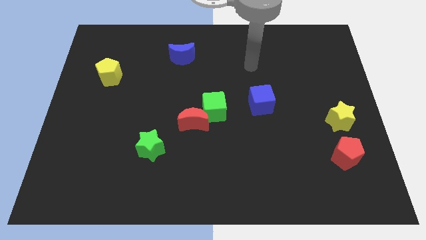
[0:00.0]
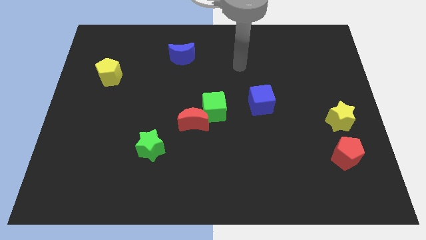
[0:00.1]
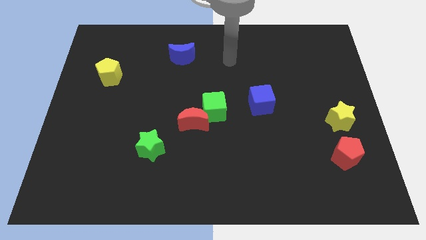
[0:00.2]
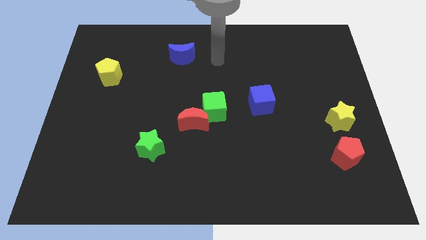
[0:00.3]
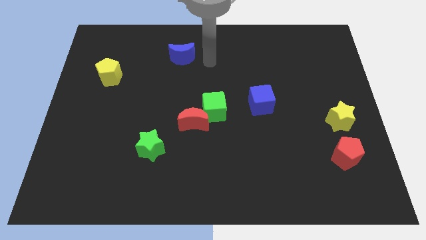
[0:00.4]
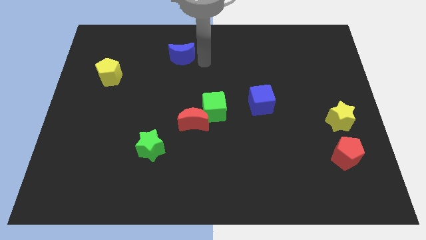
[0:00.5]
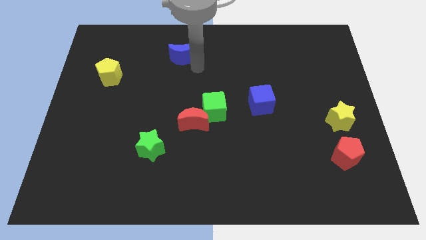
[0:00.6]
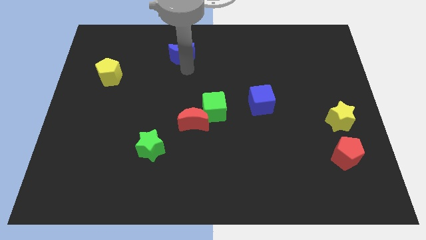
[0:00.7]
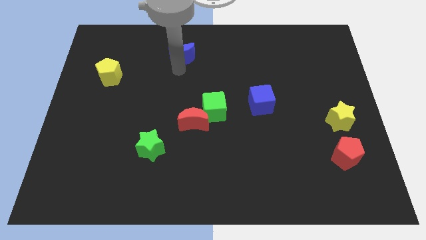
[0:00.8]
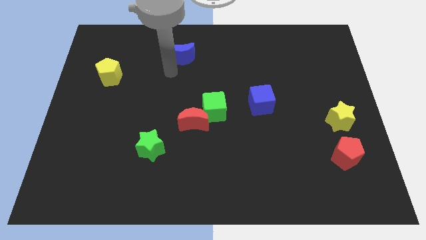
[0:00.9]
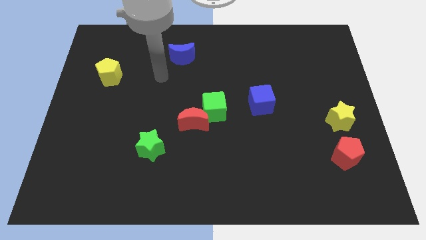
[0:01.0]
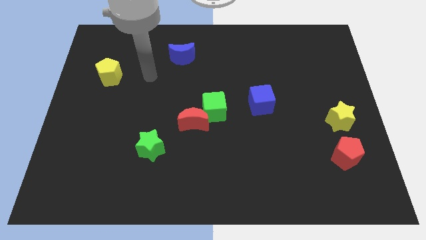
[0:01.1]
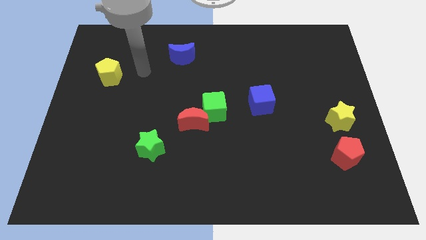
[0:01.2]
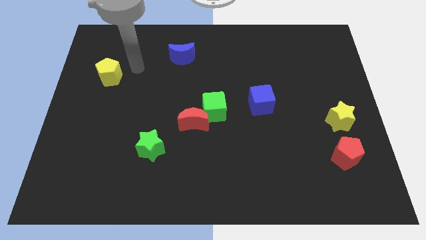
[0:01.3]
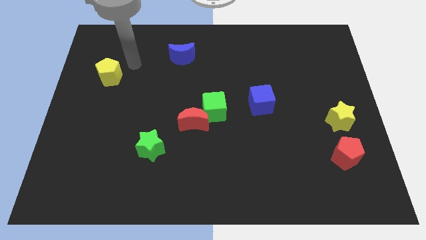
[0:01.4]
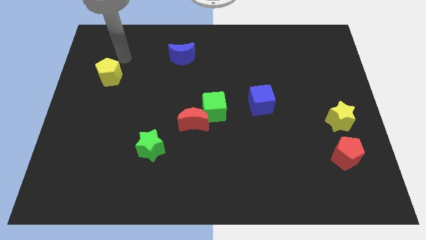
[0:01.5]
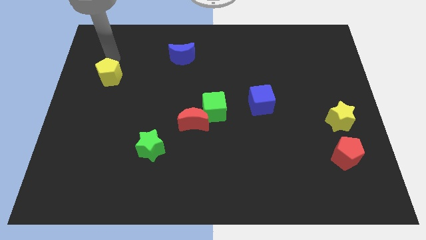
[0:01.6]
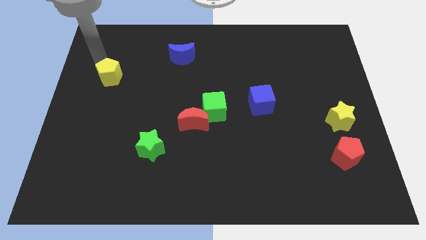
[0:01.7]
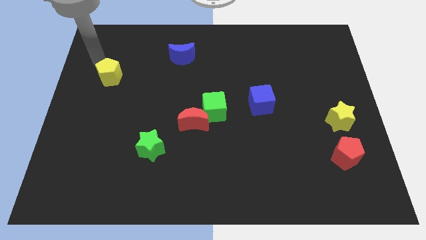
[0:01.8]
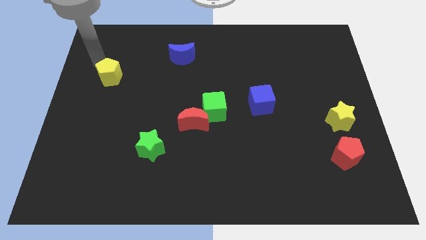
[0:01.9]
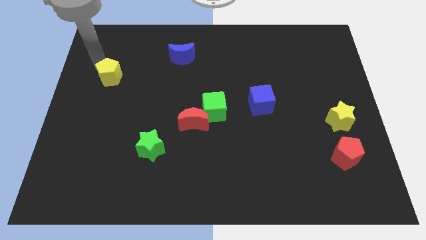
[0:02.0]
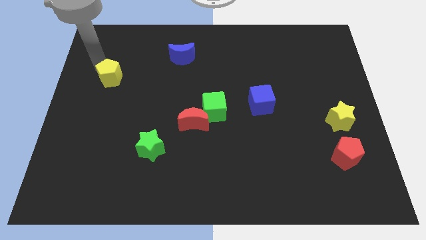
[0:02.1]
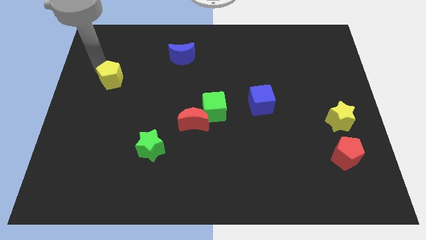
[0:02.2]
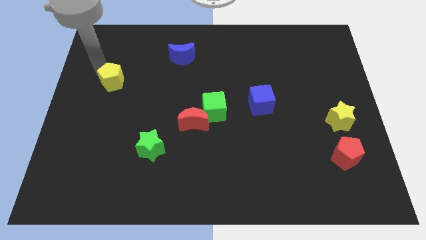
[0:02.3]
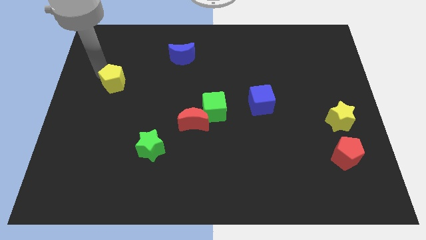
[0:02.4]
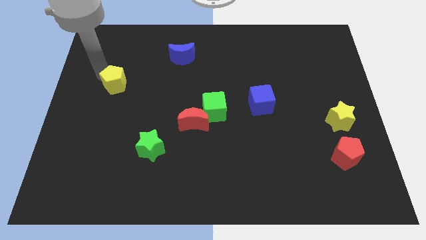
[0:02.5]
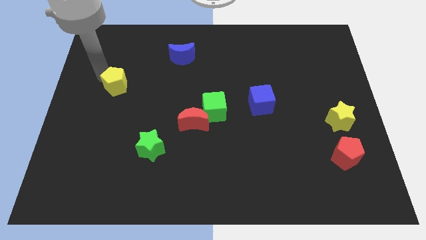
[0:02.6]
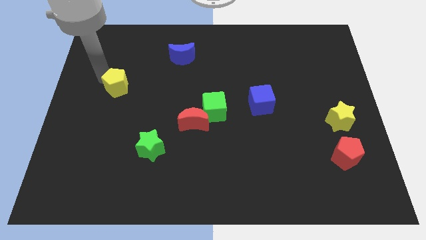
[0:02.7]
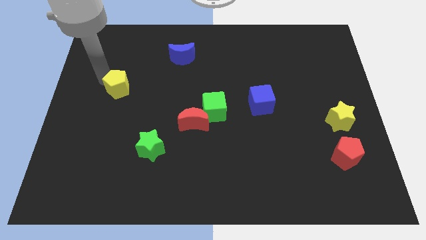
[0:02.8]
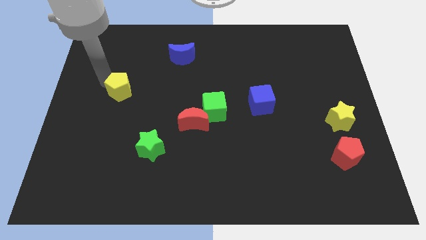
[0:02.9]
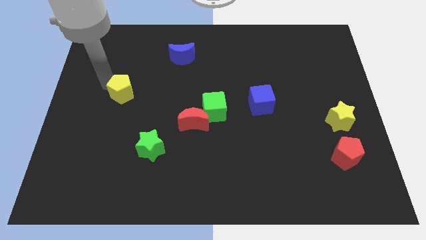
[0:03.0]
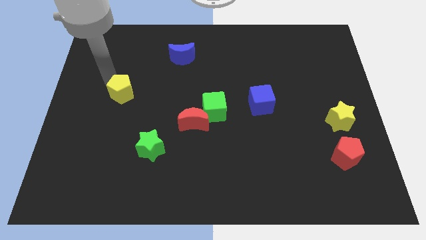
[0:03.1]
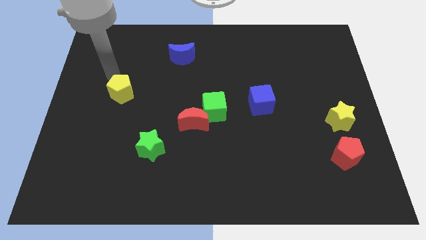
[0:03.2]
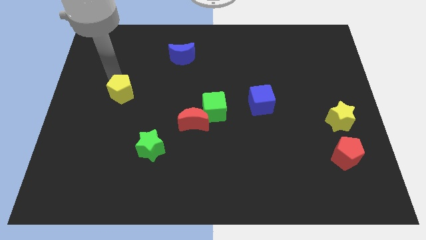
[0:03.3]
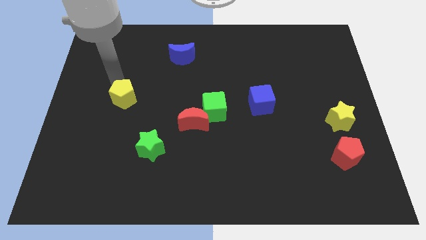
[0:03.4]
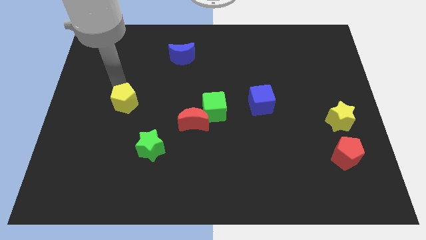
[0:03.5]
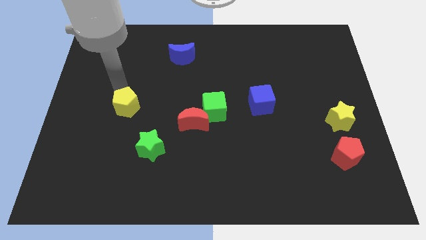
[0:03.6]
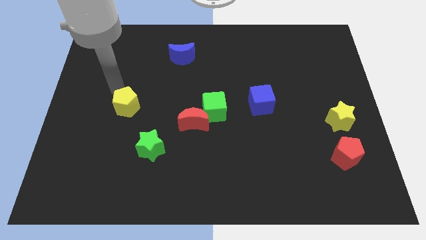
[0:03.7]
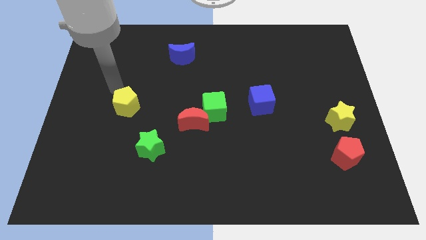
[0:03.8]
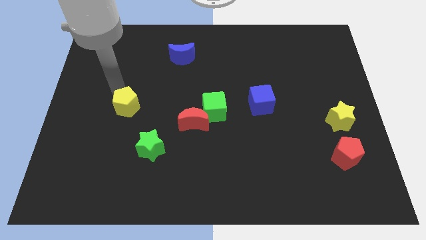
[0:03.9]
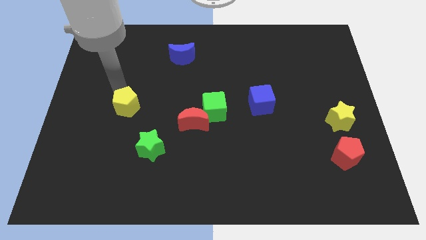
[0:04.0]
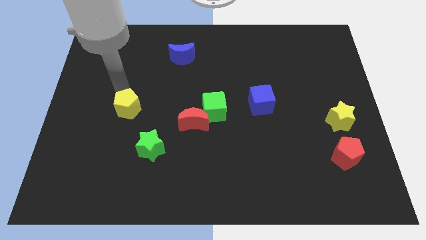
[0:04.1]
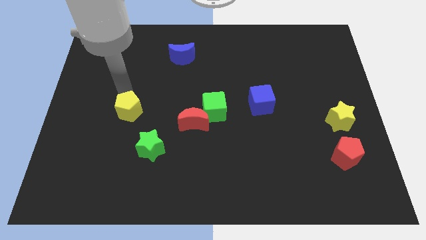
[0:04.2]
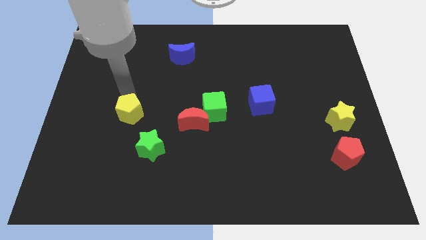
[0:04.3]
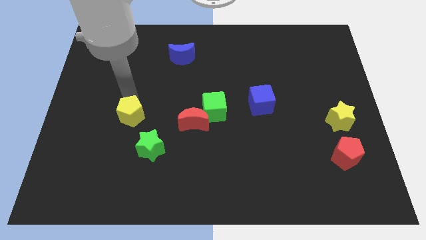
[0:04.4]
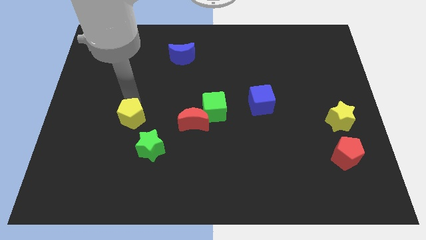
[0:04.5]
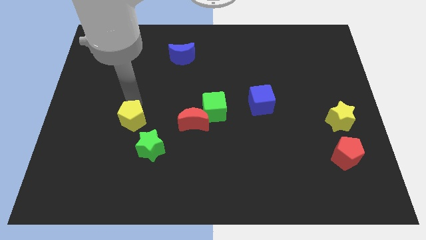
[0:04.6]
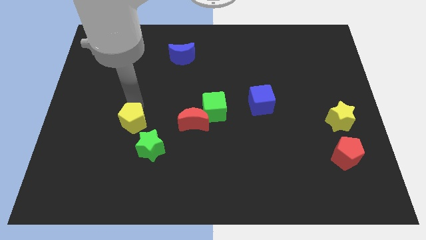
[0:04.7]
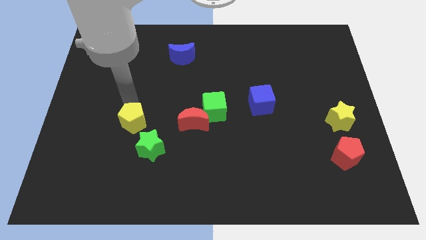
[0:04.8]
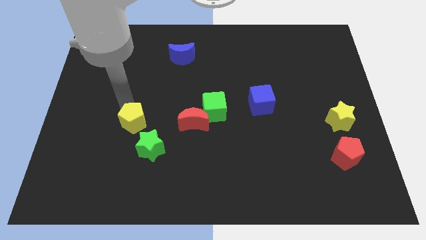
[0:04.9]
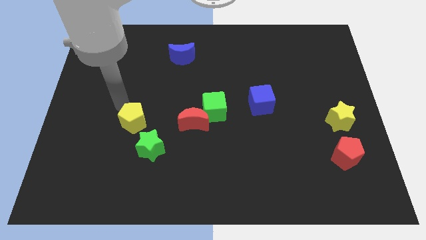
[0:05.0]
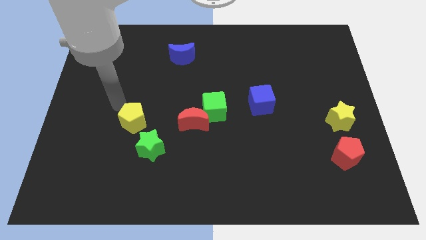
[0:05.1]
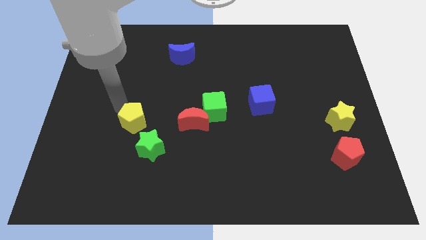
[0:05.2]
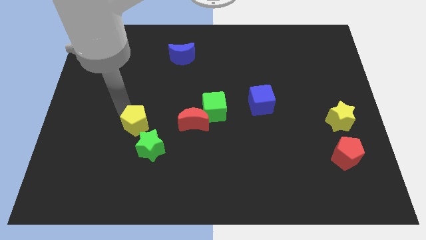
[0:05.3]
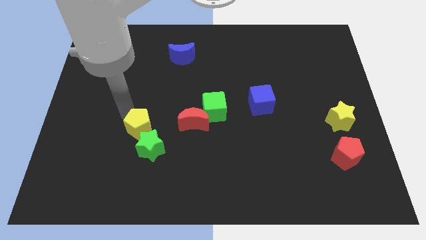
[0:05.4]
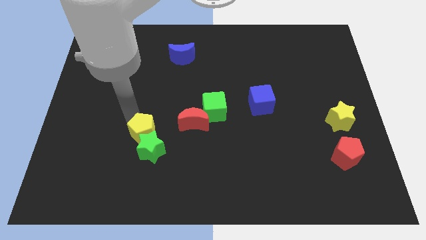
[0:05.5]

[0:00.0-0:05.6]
push the yellow pentagon towards the green star

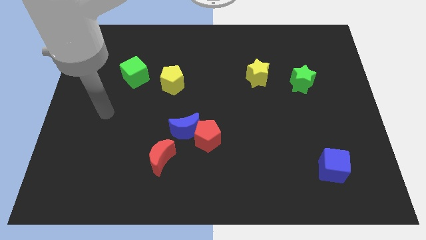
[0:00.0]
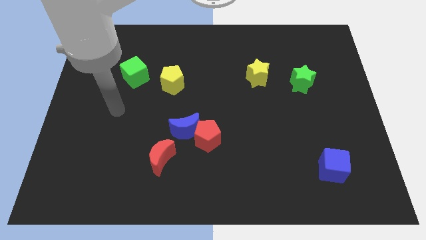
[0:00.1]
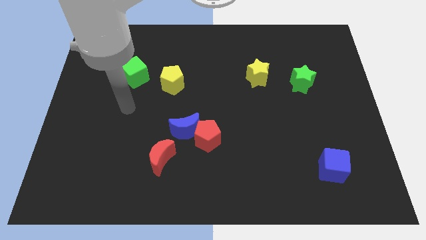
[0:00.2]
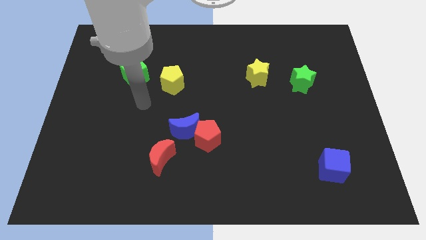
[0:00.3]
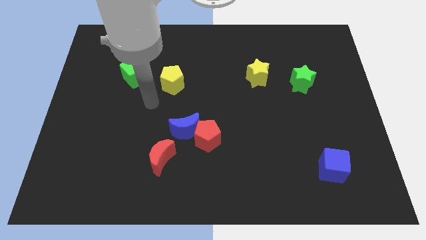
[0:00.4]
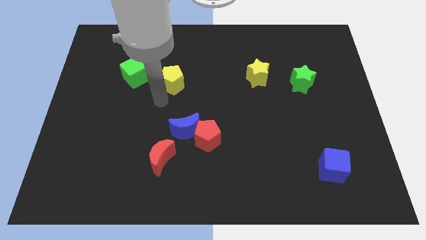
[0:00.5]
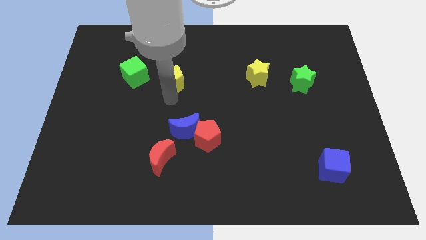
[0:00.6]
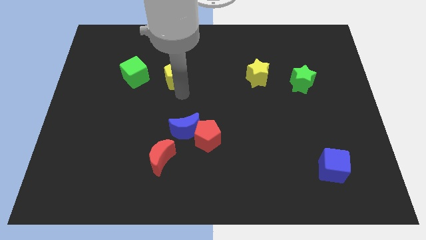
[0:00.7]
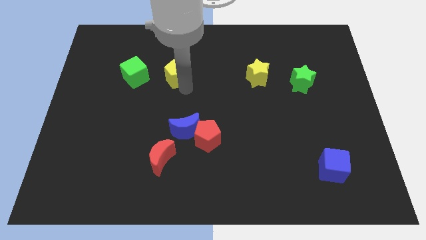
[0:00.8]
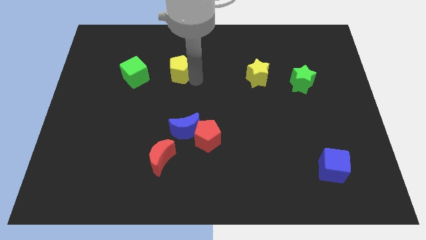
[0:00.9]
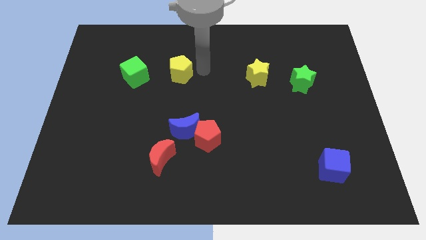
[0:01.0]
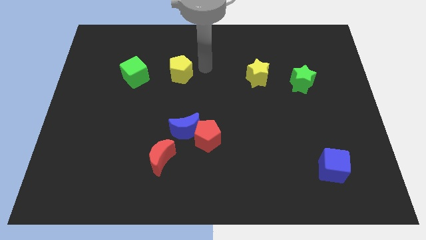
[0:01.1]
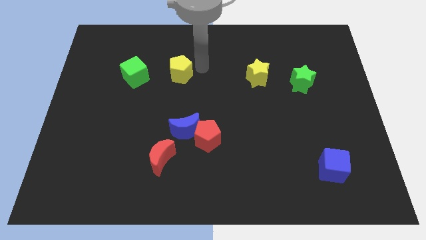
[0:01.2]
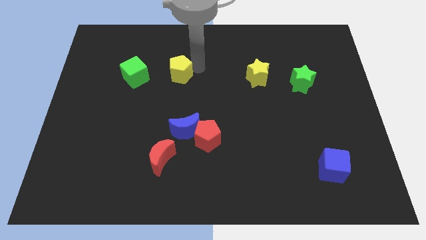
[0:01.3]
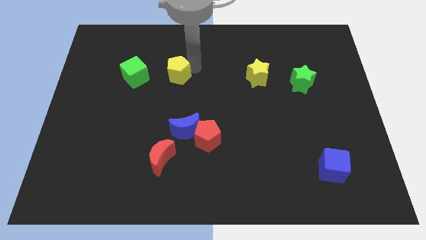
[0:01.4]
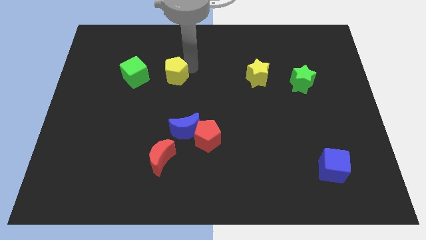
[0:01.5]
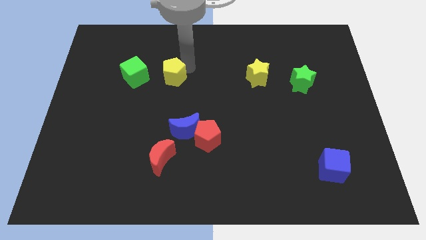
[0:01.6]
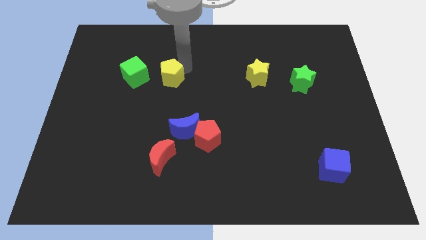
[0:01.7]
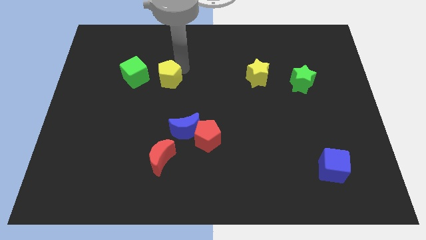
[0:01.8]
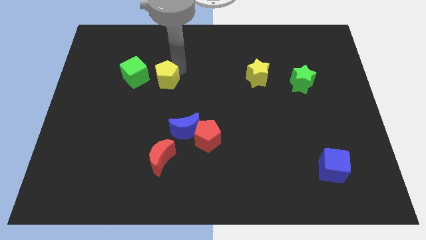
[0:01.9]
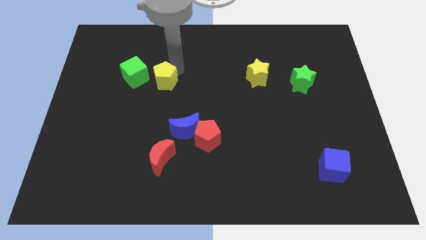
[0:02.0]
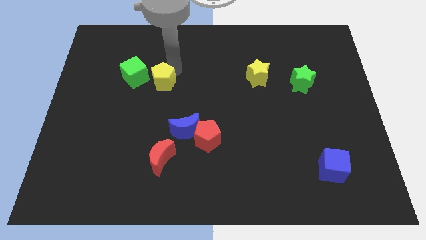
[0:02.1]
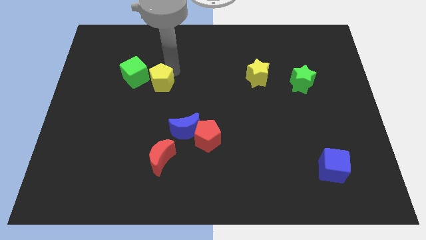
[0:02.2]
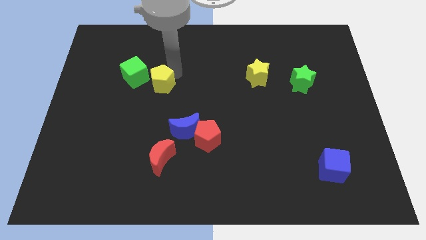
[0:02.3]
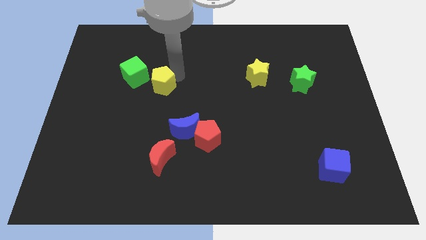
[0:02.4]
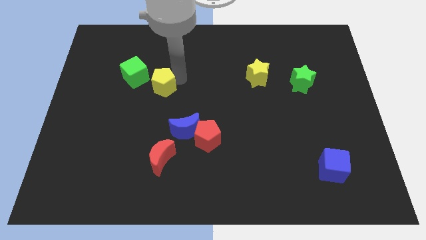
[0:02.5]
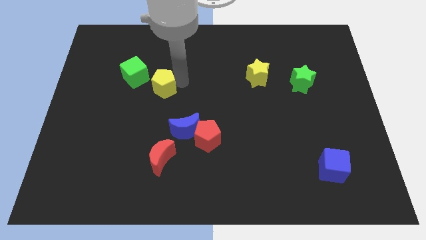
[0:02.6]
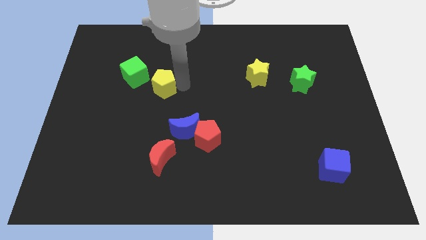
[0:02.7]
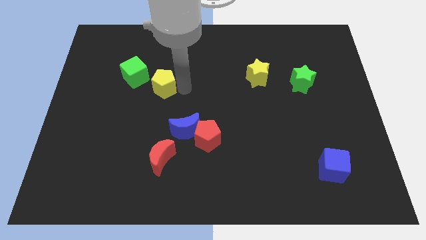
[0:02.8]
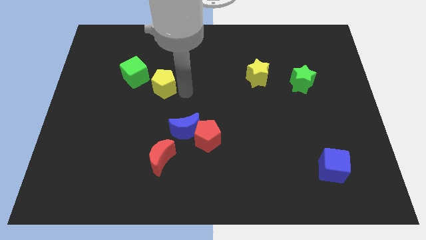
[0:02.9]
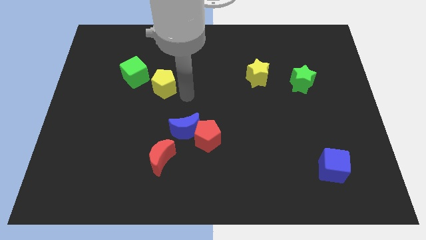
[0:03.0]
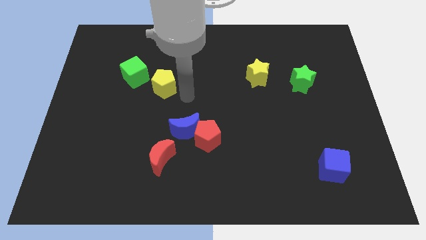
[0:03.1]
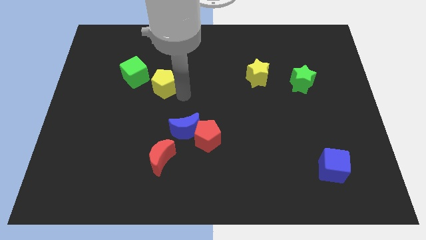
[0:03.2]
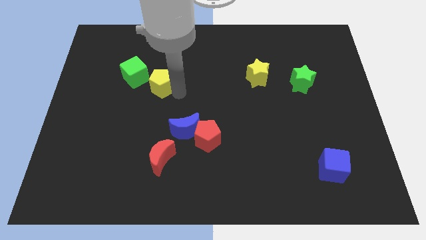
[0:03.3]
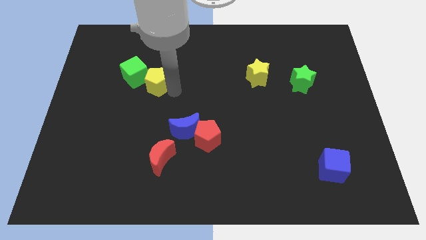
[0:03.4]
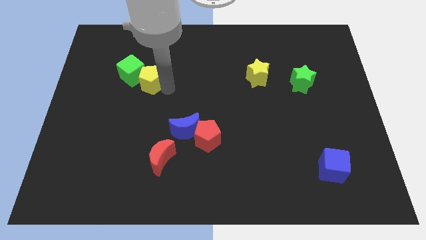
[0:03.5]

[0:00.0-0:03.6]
move the yellow pentagon towards the green cube
